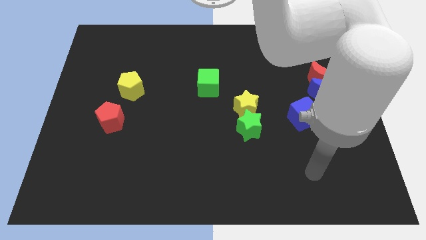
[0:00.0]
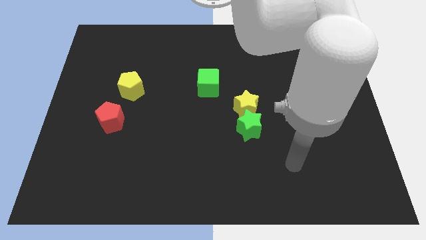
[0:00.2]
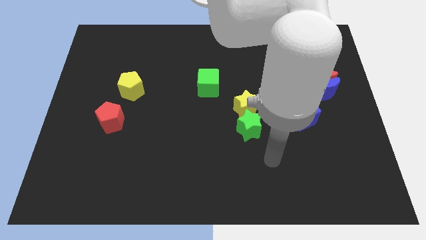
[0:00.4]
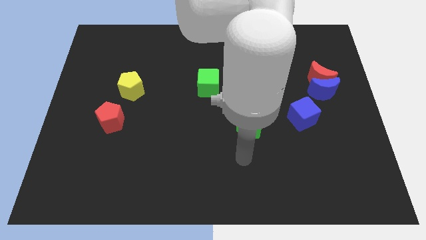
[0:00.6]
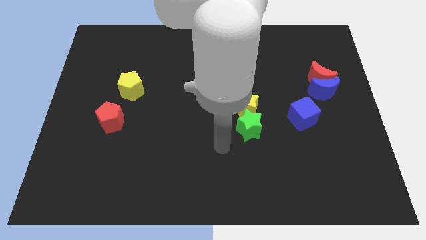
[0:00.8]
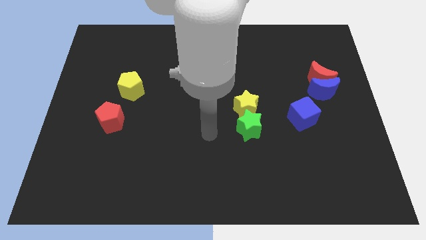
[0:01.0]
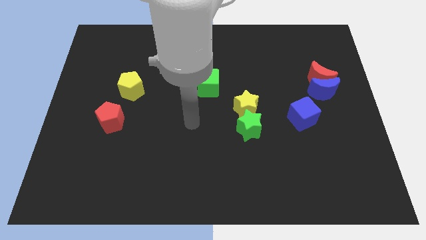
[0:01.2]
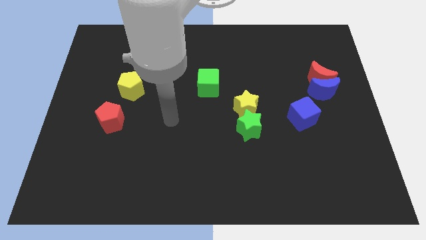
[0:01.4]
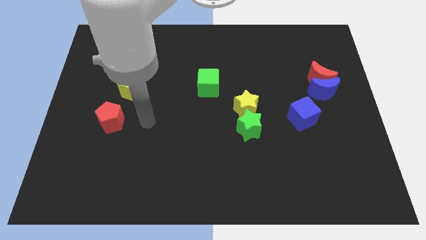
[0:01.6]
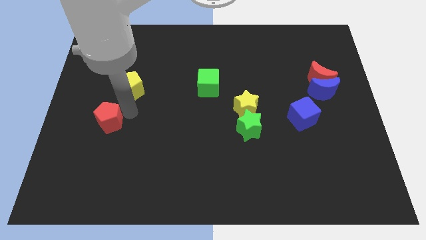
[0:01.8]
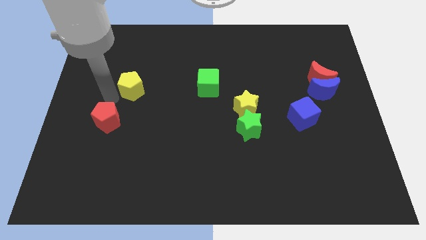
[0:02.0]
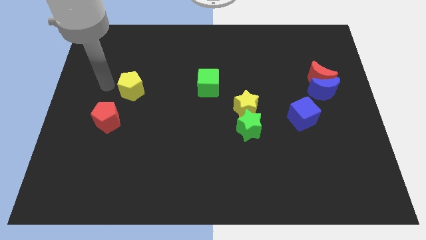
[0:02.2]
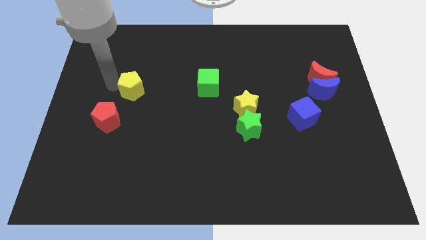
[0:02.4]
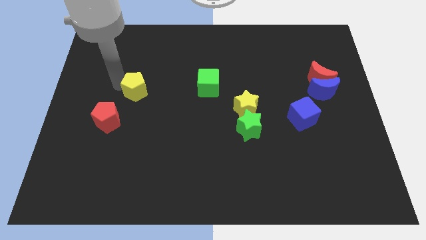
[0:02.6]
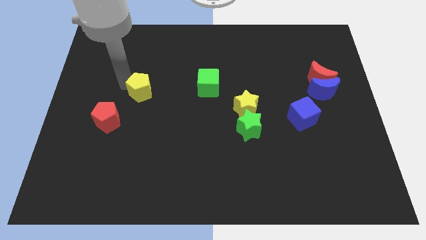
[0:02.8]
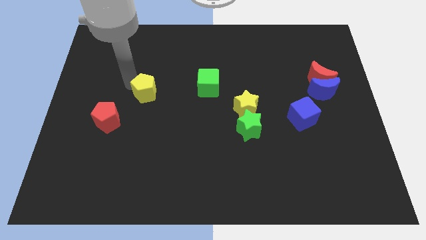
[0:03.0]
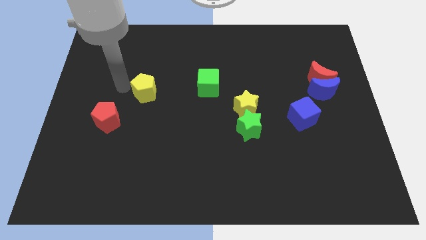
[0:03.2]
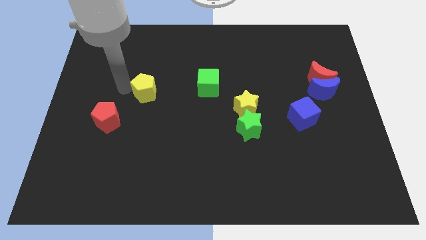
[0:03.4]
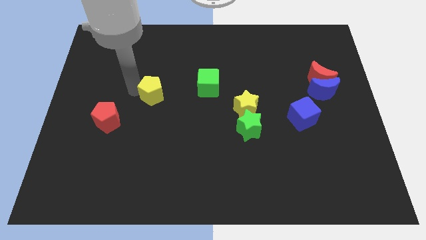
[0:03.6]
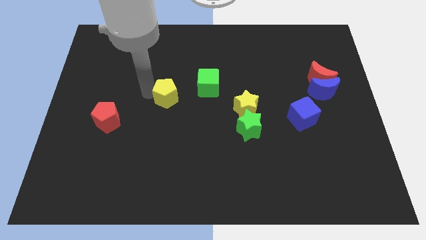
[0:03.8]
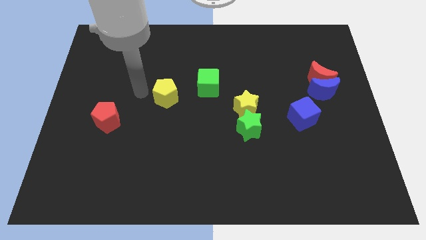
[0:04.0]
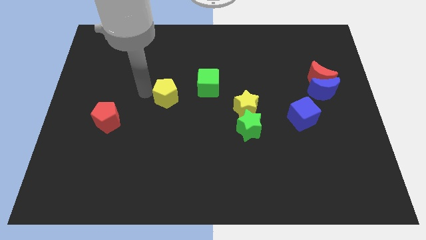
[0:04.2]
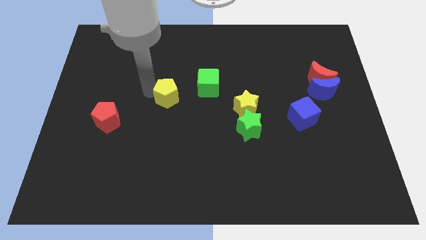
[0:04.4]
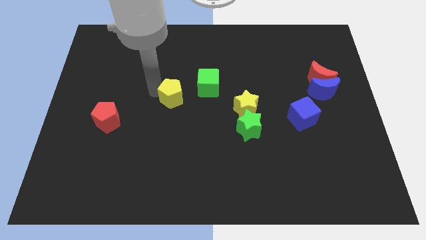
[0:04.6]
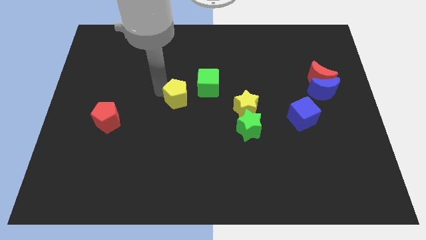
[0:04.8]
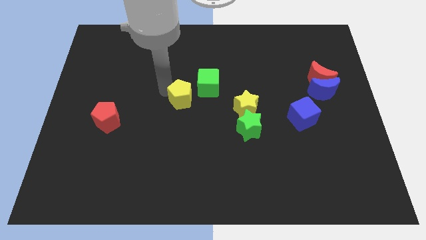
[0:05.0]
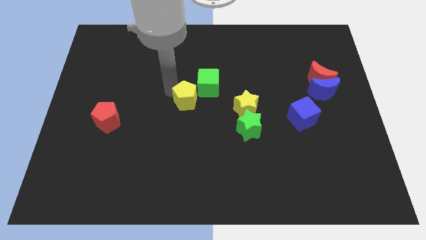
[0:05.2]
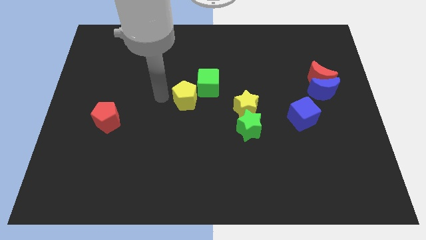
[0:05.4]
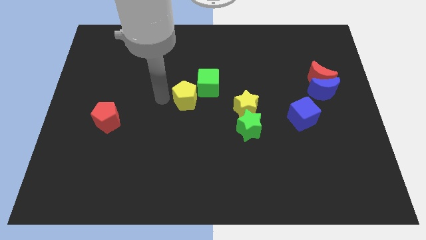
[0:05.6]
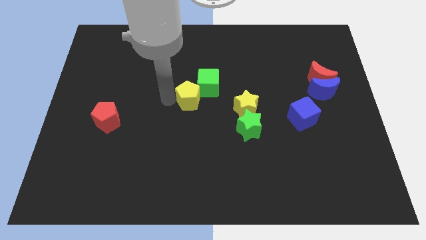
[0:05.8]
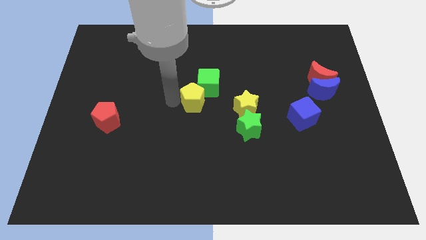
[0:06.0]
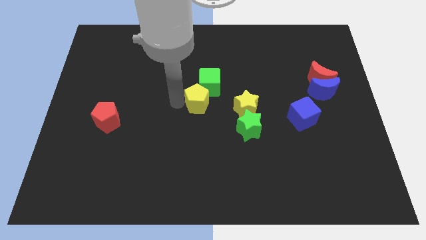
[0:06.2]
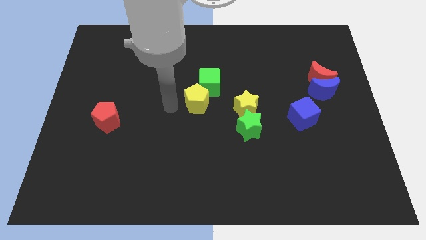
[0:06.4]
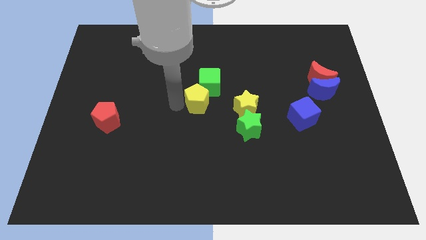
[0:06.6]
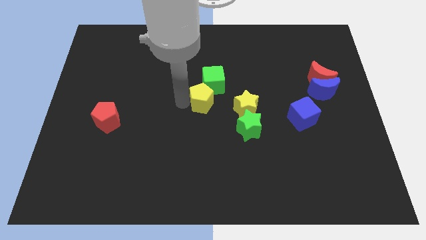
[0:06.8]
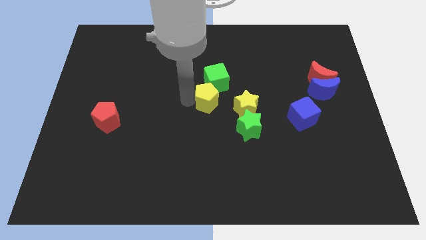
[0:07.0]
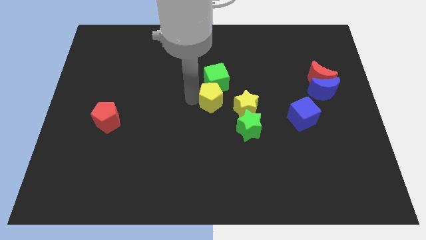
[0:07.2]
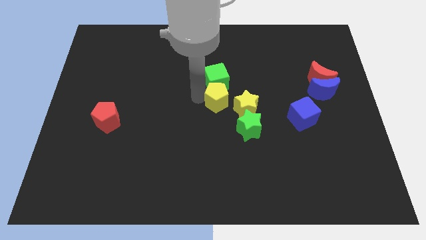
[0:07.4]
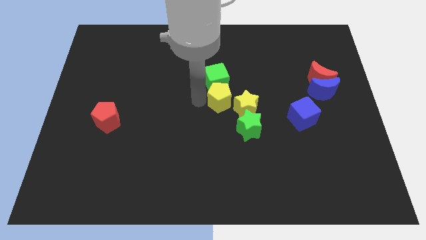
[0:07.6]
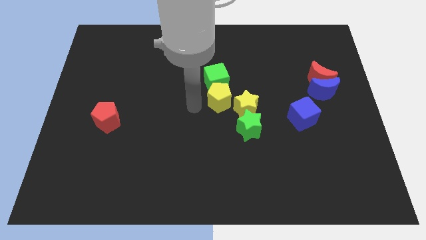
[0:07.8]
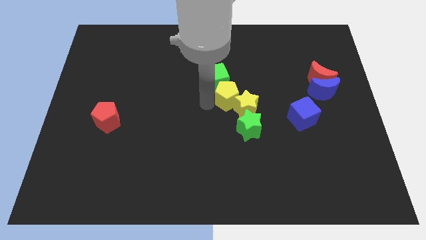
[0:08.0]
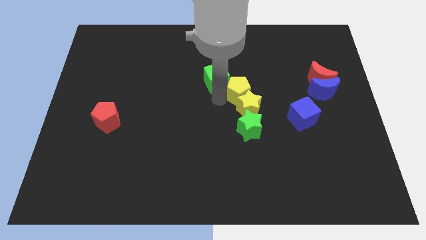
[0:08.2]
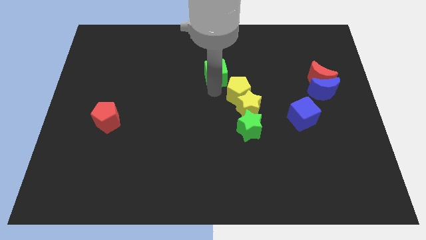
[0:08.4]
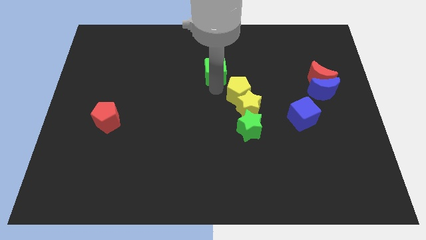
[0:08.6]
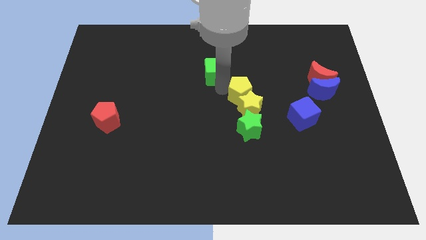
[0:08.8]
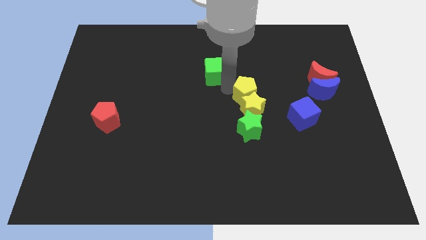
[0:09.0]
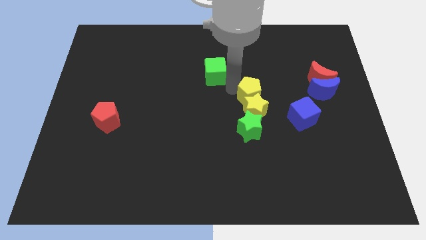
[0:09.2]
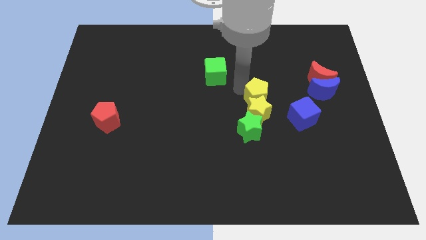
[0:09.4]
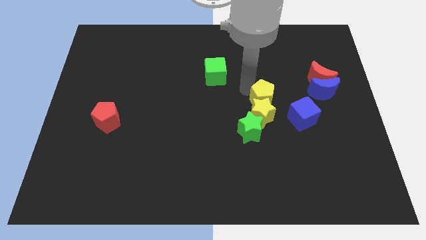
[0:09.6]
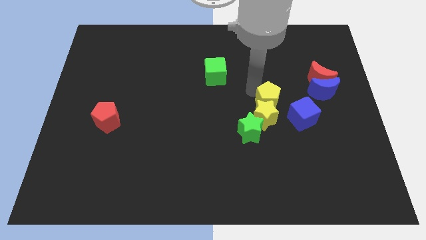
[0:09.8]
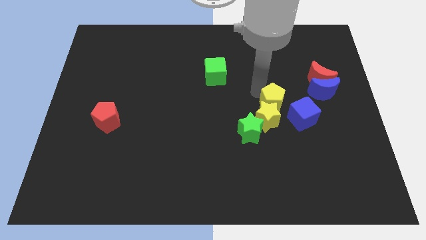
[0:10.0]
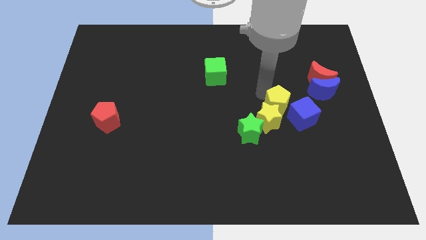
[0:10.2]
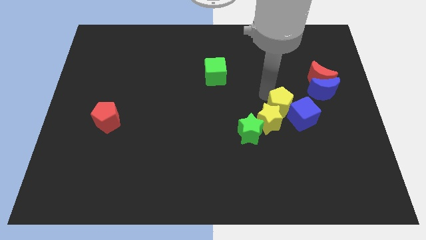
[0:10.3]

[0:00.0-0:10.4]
put the yellow pentagon close to the blue cube

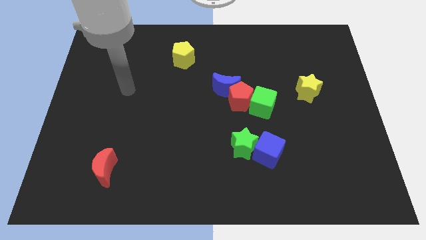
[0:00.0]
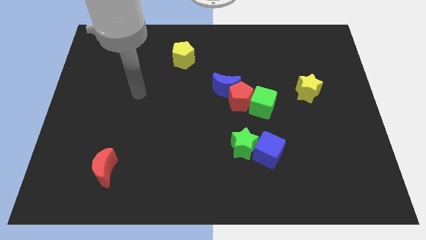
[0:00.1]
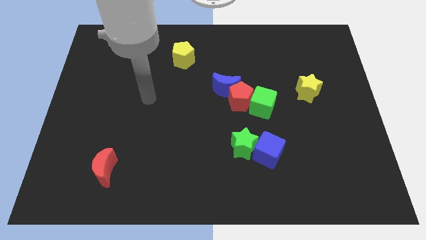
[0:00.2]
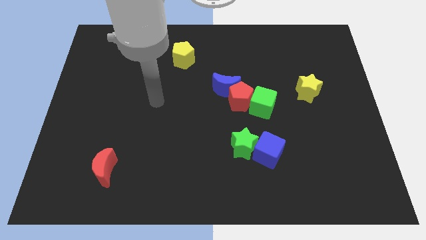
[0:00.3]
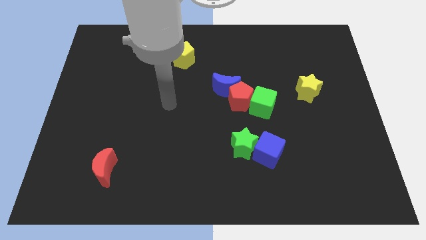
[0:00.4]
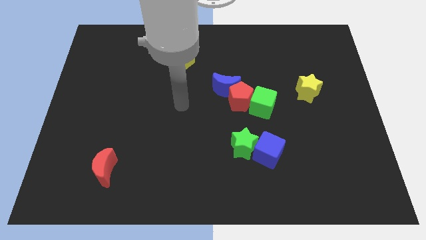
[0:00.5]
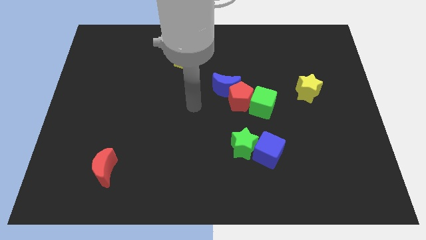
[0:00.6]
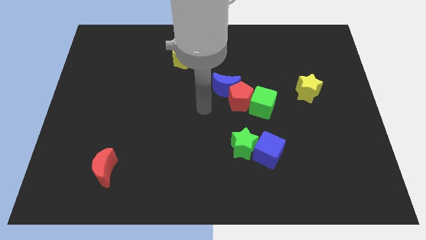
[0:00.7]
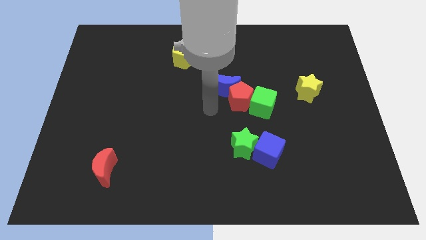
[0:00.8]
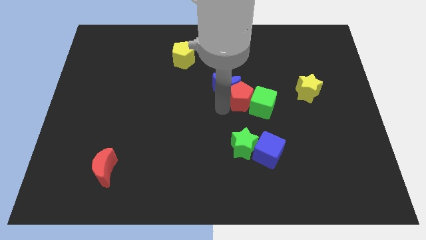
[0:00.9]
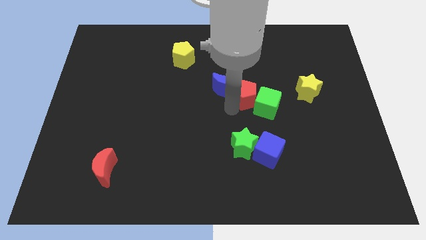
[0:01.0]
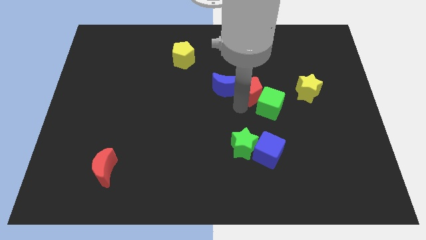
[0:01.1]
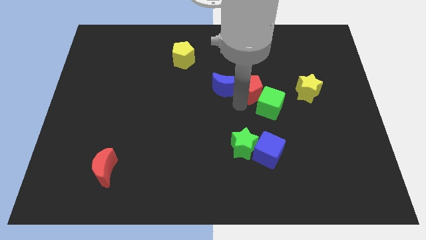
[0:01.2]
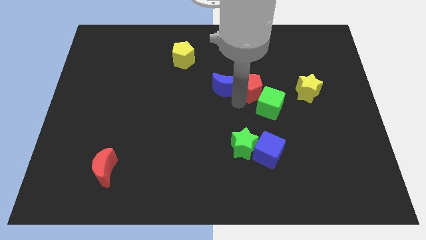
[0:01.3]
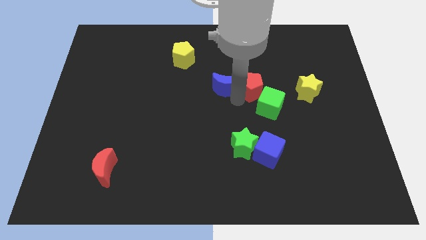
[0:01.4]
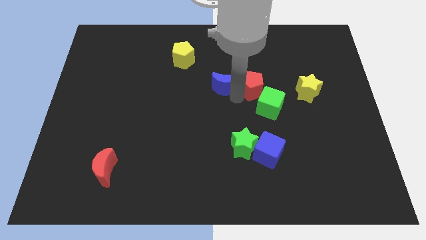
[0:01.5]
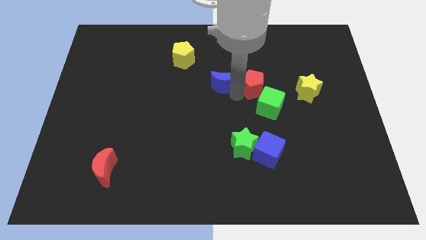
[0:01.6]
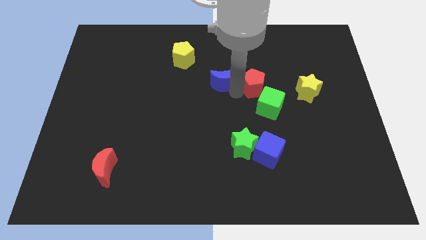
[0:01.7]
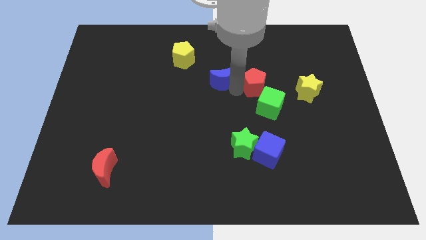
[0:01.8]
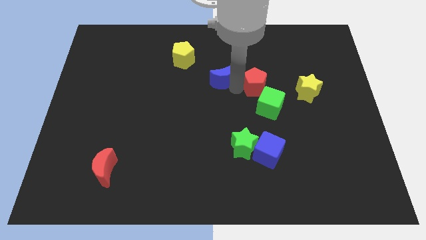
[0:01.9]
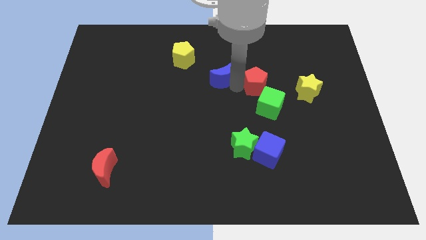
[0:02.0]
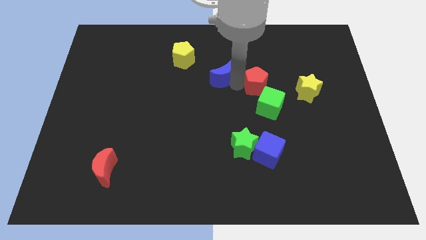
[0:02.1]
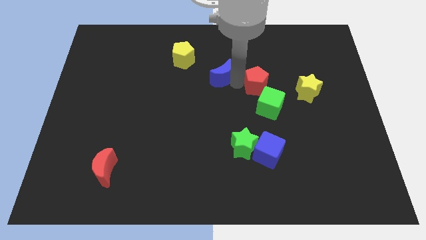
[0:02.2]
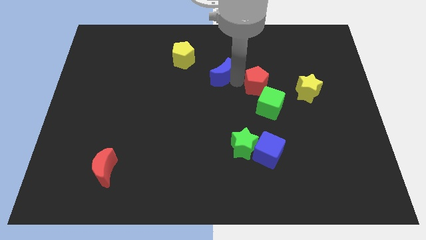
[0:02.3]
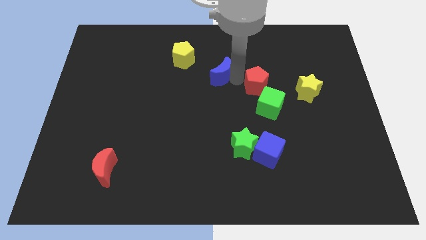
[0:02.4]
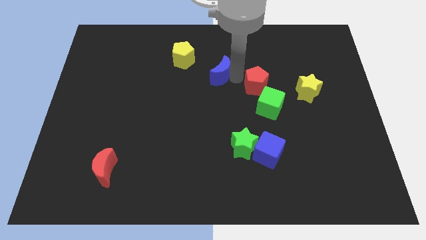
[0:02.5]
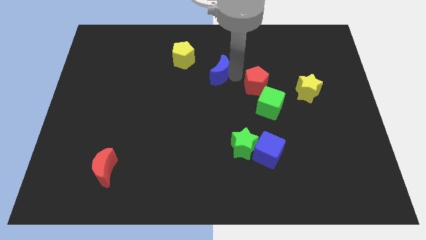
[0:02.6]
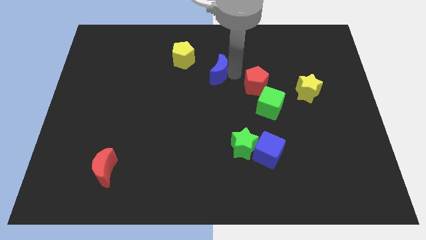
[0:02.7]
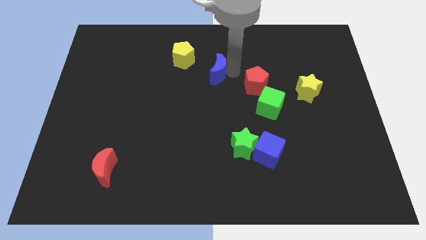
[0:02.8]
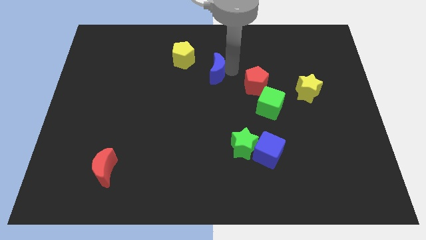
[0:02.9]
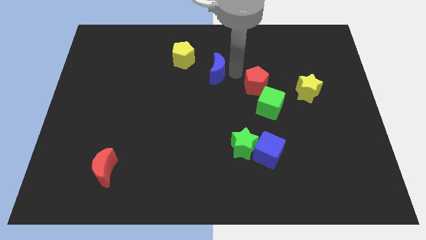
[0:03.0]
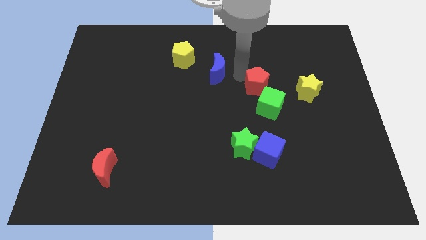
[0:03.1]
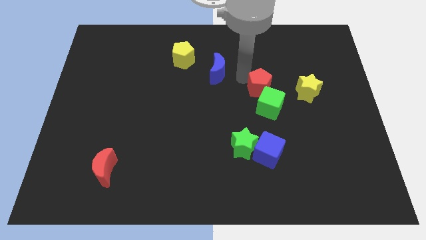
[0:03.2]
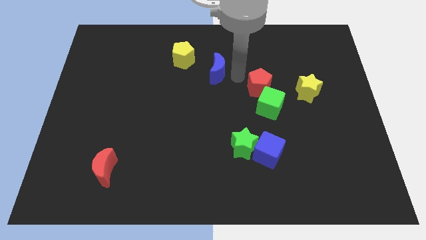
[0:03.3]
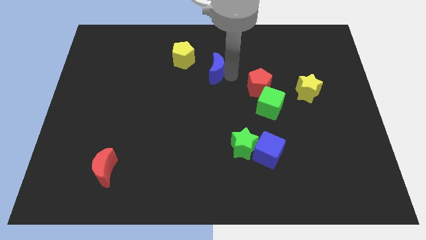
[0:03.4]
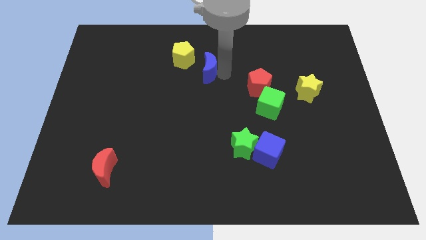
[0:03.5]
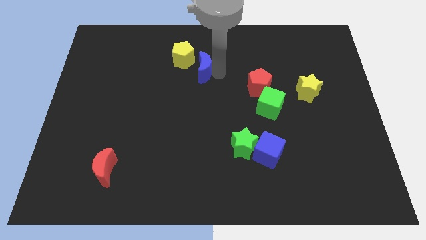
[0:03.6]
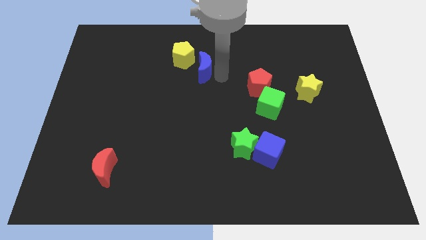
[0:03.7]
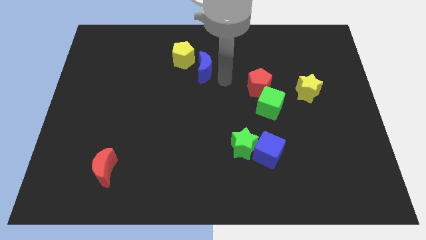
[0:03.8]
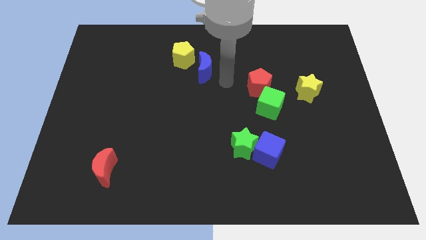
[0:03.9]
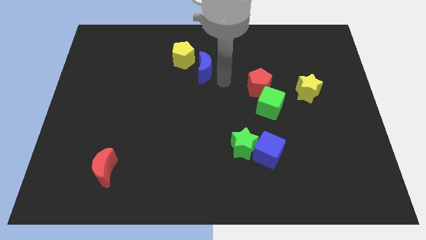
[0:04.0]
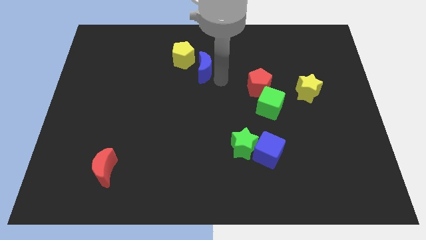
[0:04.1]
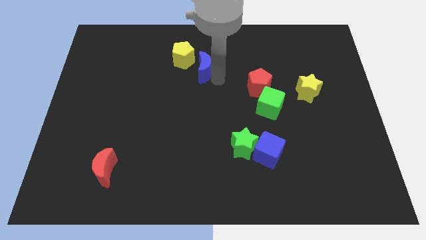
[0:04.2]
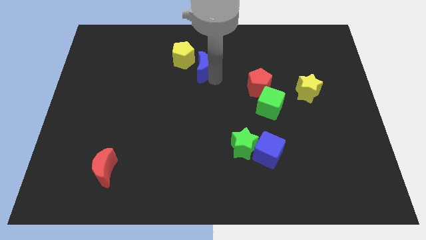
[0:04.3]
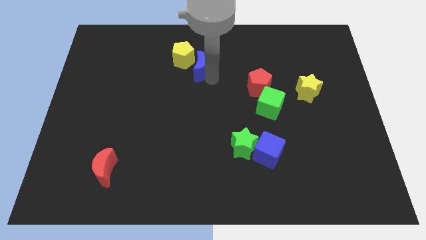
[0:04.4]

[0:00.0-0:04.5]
push the blue moon close to the yellow pentagon
